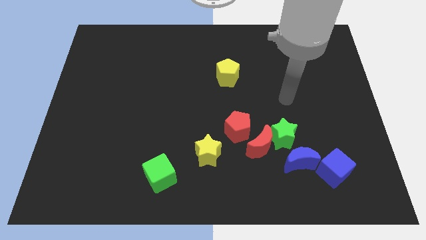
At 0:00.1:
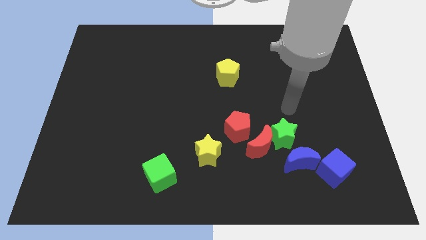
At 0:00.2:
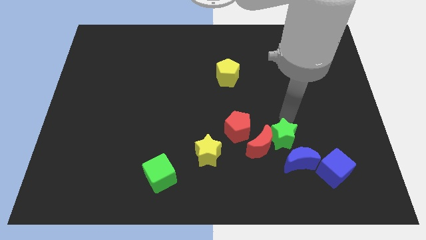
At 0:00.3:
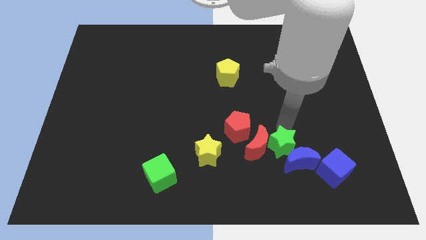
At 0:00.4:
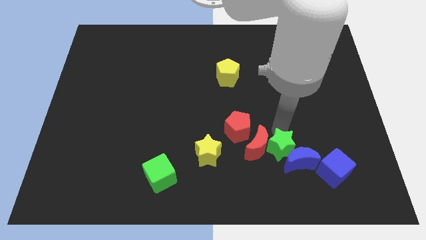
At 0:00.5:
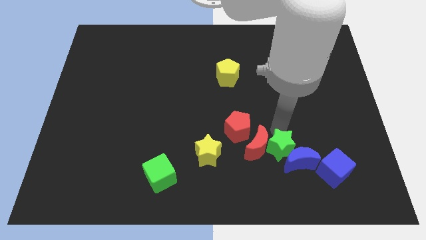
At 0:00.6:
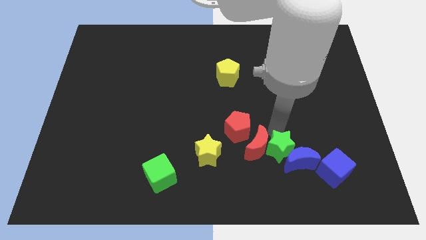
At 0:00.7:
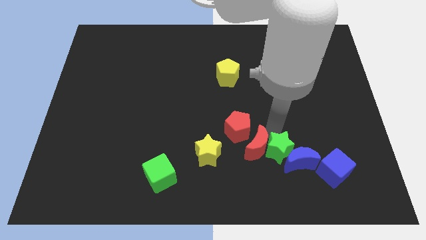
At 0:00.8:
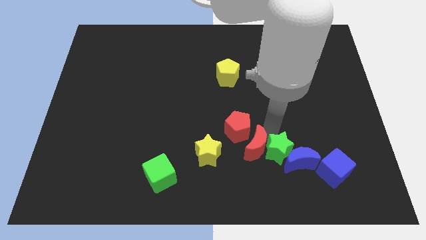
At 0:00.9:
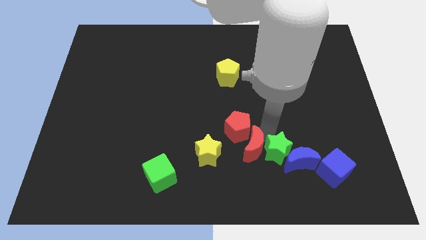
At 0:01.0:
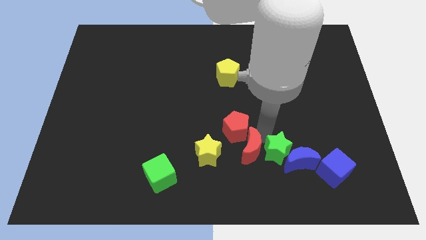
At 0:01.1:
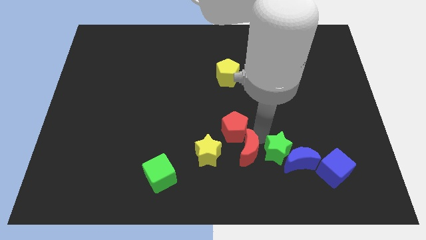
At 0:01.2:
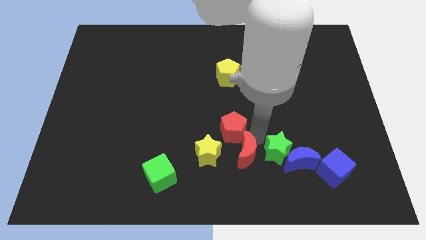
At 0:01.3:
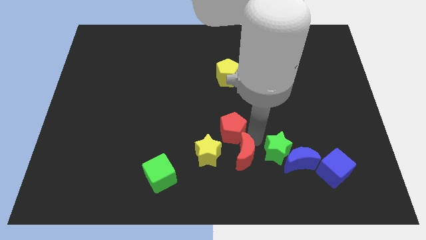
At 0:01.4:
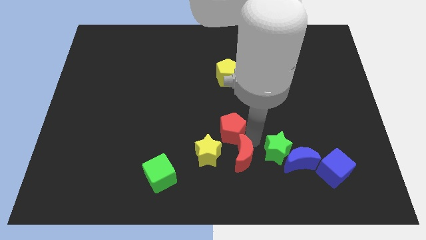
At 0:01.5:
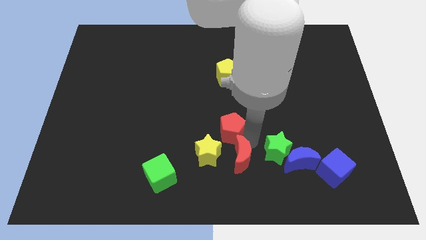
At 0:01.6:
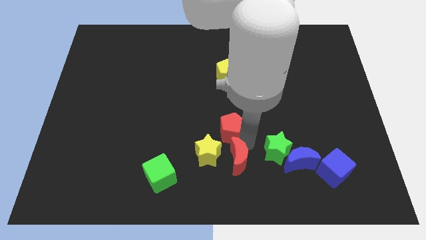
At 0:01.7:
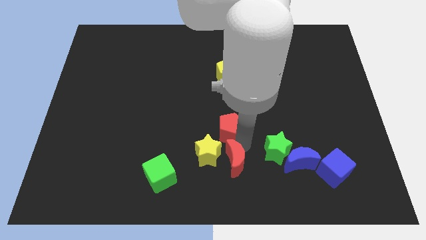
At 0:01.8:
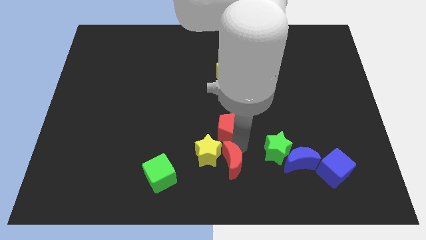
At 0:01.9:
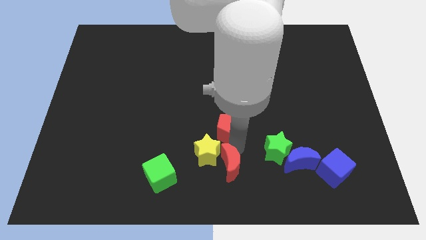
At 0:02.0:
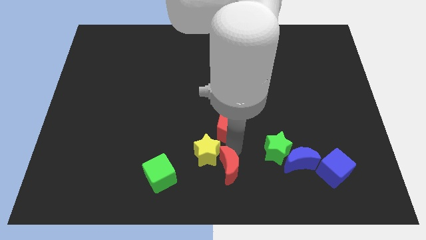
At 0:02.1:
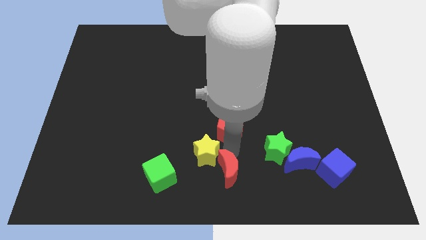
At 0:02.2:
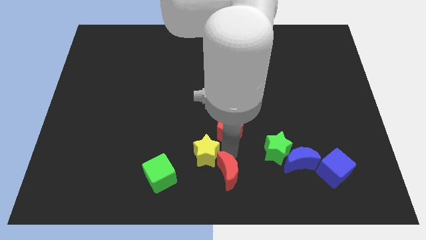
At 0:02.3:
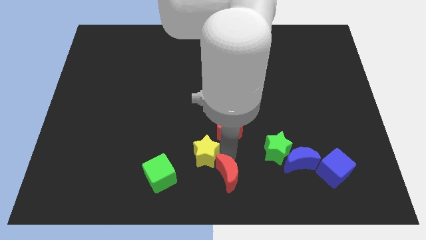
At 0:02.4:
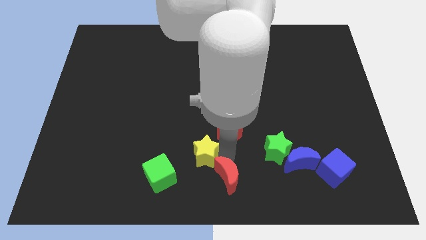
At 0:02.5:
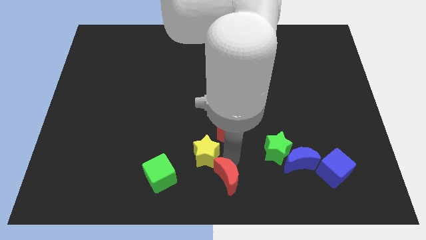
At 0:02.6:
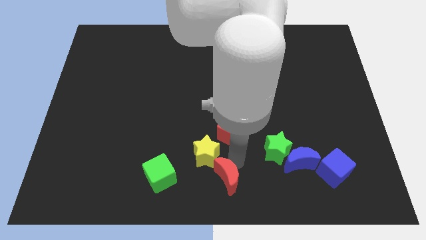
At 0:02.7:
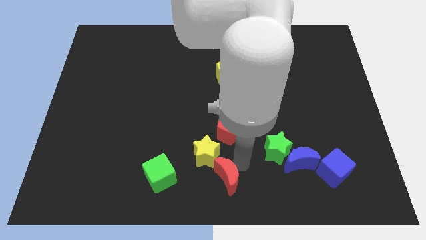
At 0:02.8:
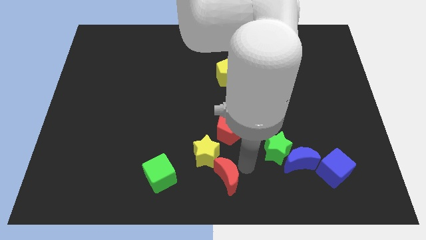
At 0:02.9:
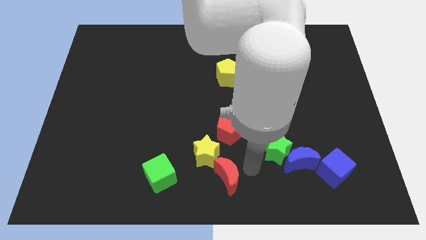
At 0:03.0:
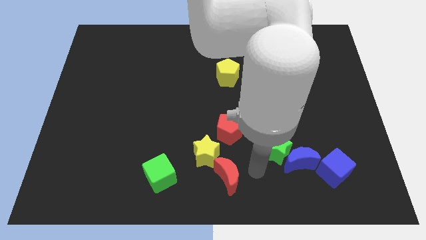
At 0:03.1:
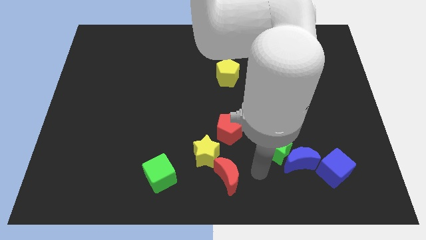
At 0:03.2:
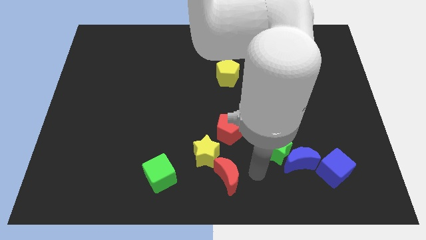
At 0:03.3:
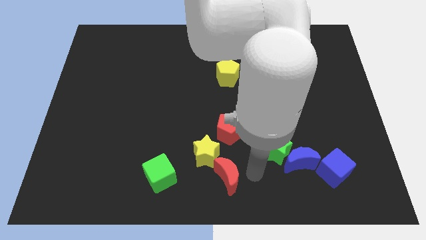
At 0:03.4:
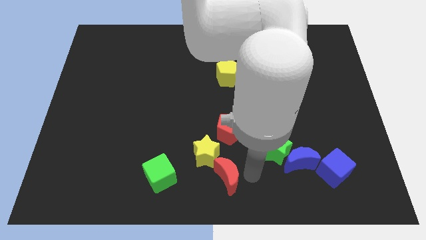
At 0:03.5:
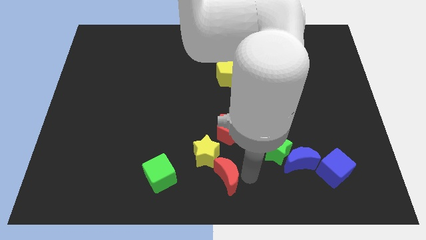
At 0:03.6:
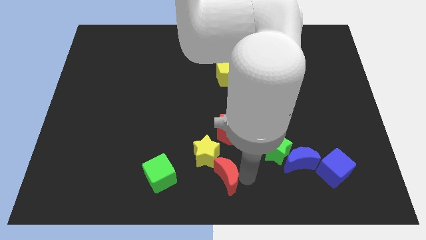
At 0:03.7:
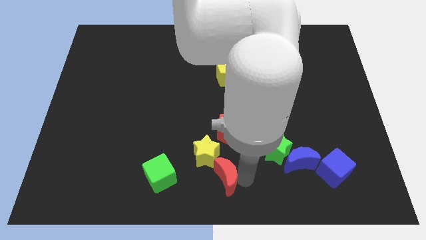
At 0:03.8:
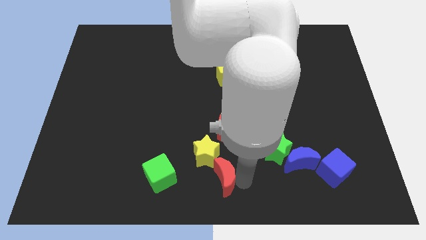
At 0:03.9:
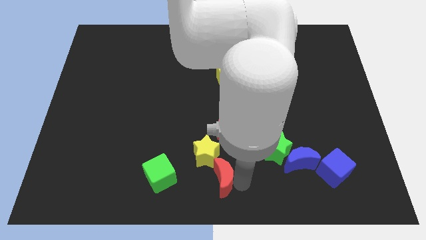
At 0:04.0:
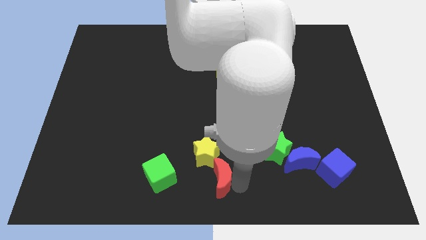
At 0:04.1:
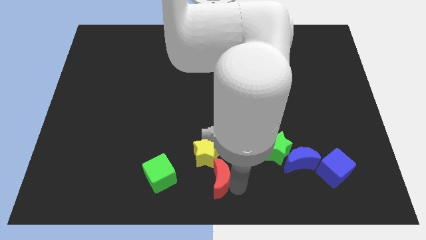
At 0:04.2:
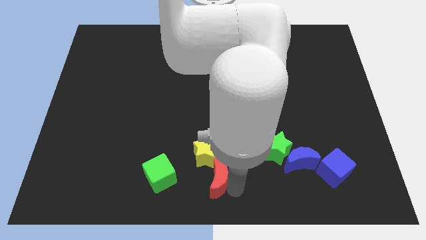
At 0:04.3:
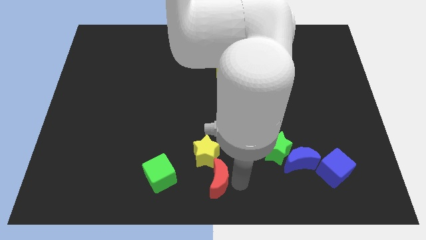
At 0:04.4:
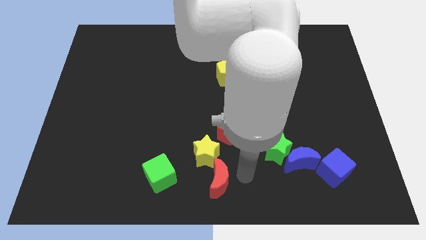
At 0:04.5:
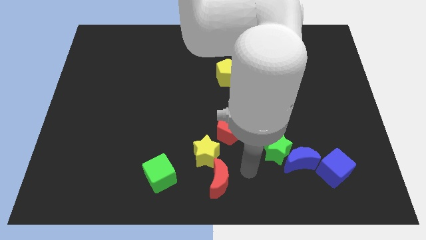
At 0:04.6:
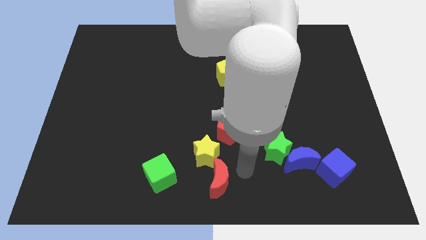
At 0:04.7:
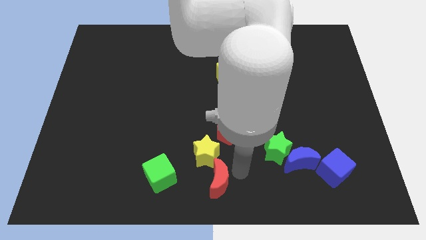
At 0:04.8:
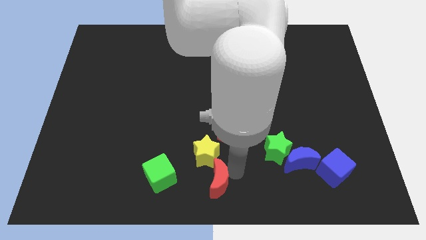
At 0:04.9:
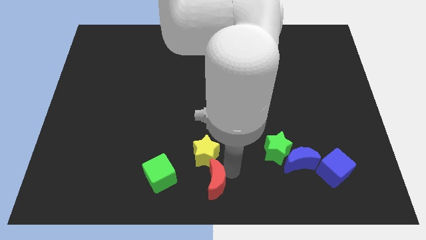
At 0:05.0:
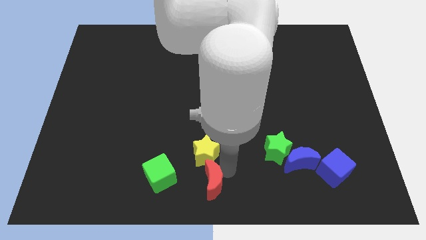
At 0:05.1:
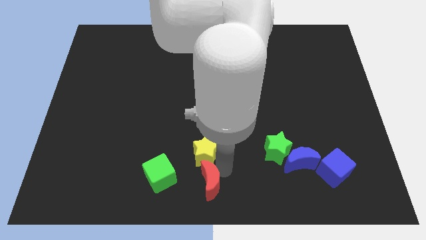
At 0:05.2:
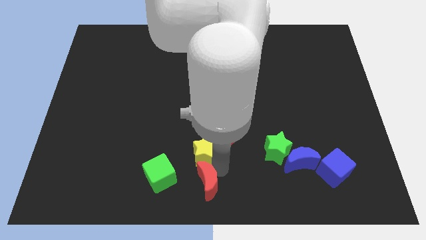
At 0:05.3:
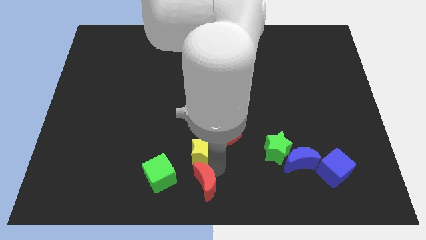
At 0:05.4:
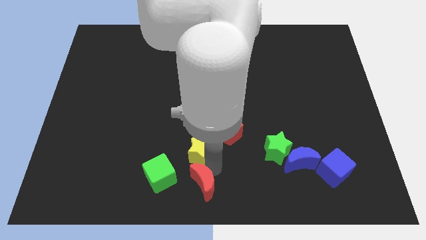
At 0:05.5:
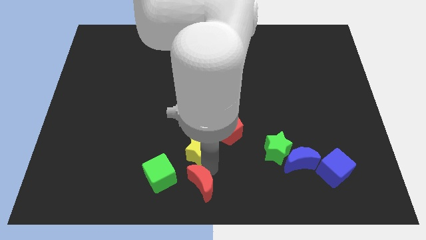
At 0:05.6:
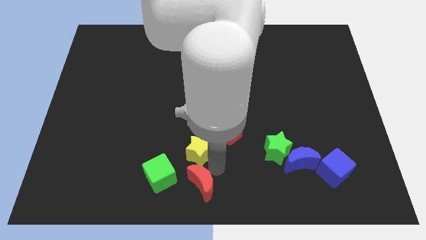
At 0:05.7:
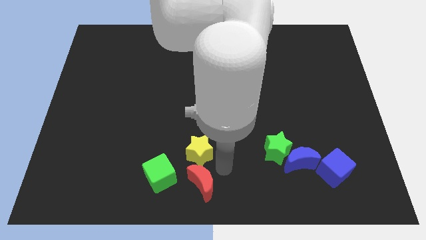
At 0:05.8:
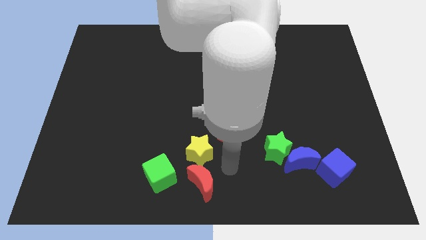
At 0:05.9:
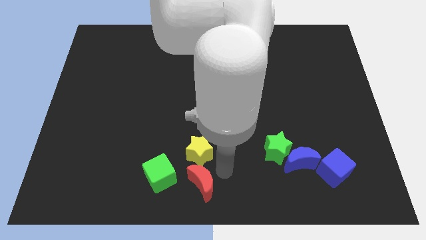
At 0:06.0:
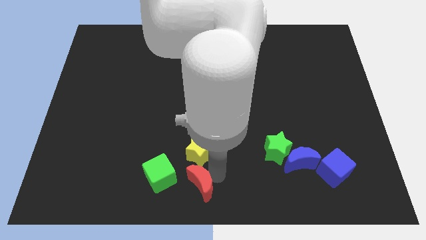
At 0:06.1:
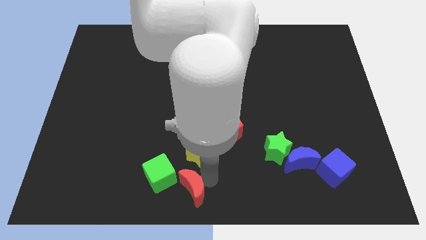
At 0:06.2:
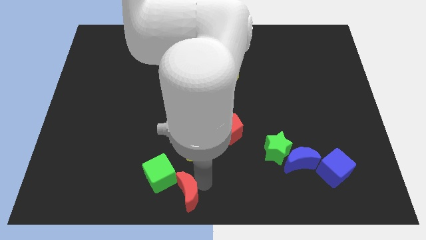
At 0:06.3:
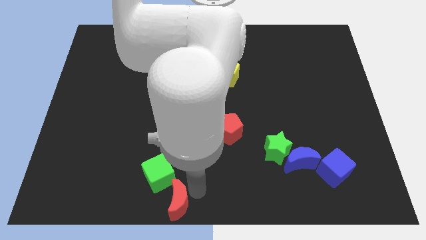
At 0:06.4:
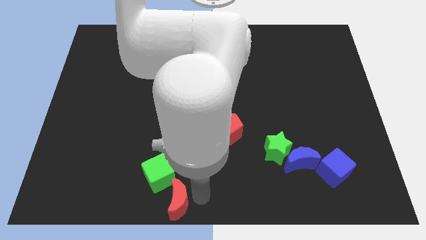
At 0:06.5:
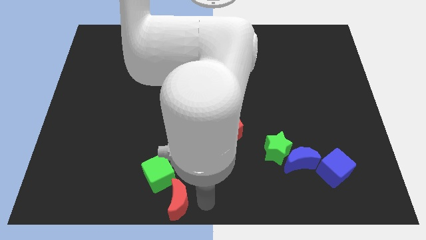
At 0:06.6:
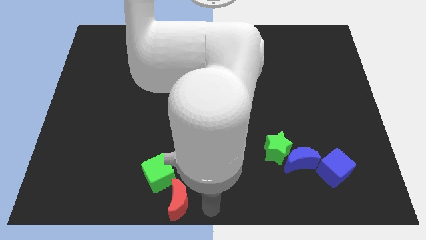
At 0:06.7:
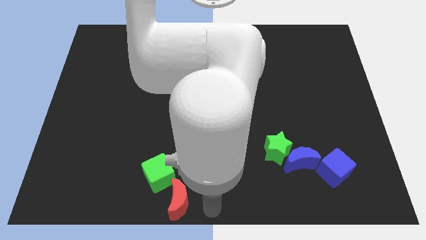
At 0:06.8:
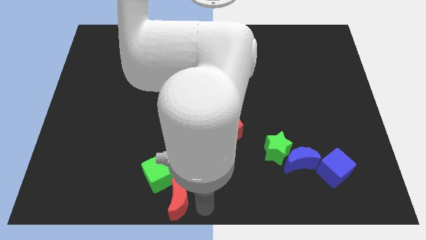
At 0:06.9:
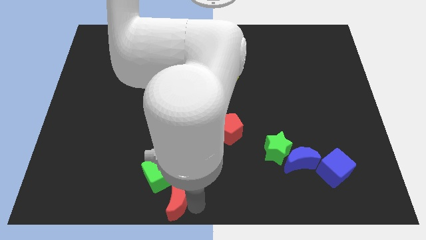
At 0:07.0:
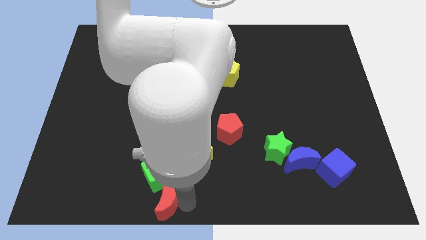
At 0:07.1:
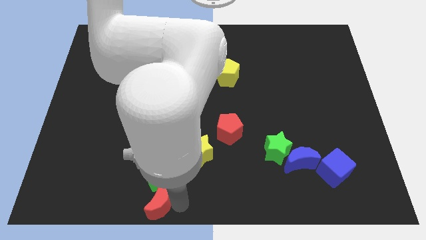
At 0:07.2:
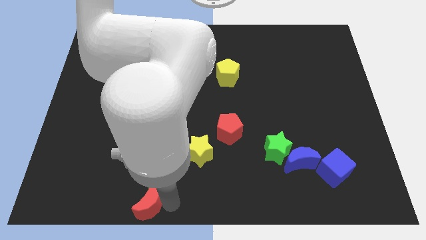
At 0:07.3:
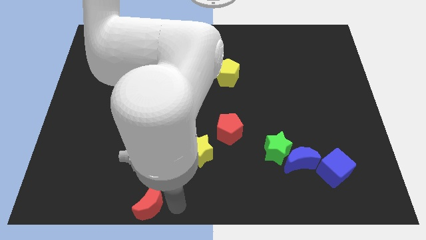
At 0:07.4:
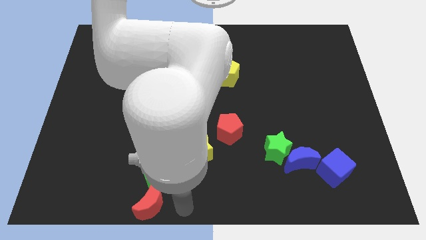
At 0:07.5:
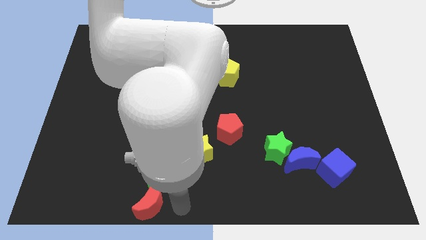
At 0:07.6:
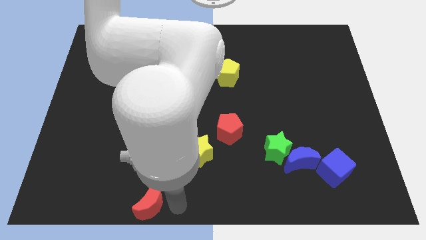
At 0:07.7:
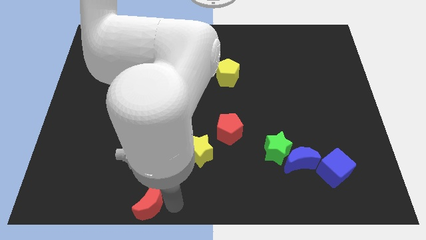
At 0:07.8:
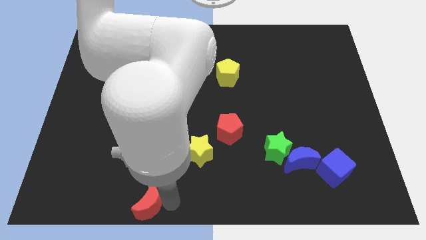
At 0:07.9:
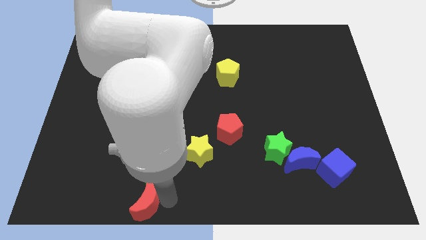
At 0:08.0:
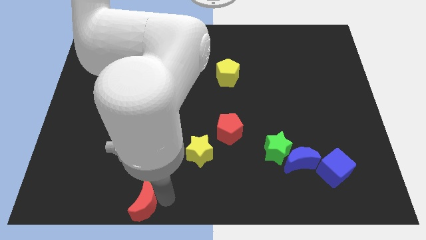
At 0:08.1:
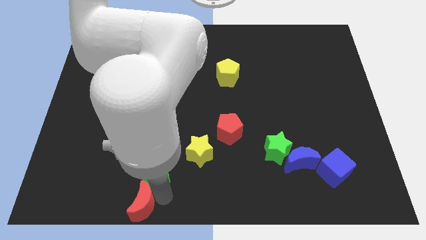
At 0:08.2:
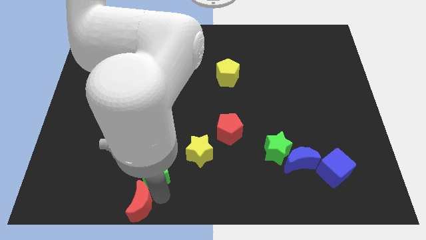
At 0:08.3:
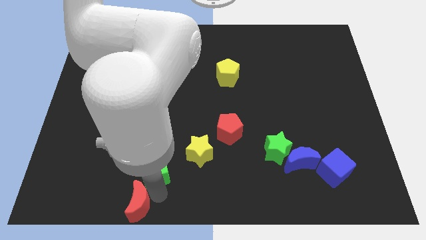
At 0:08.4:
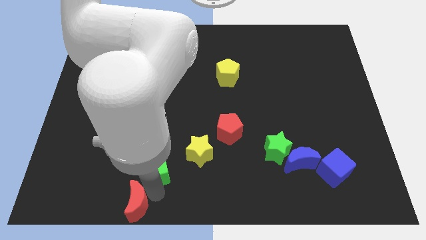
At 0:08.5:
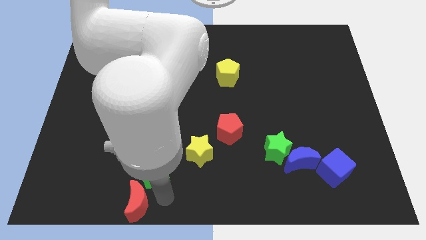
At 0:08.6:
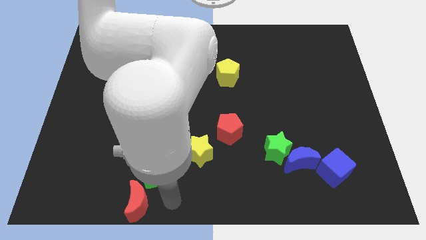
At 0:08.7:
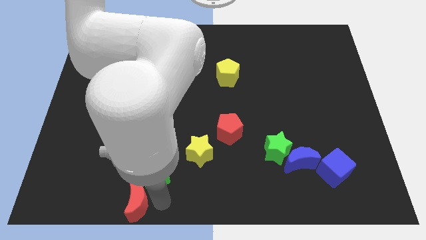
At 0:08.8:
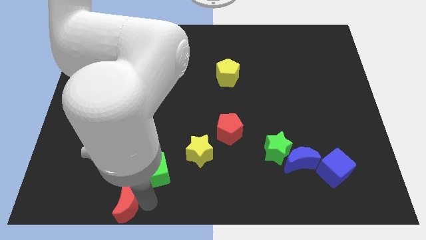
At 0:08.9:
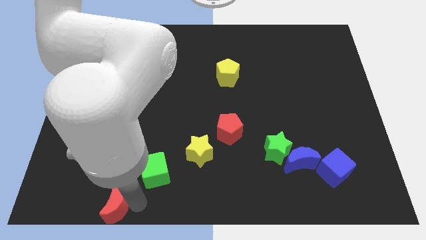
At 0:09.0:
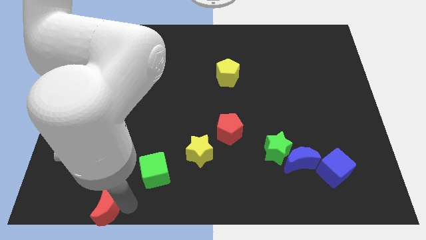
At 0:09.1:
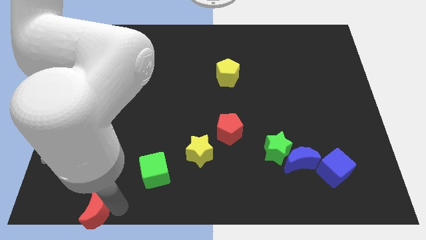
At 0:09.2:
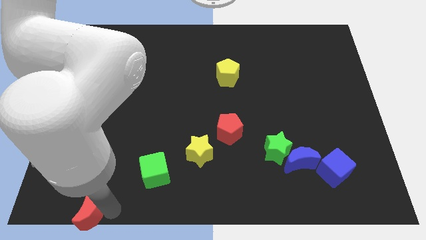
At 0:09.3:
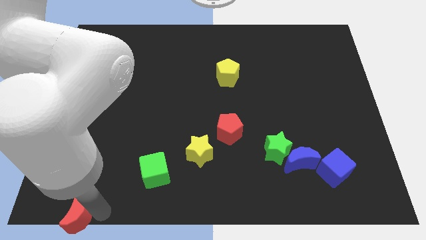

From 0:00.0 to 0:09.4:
put the red moon to the bottom left corner
